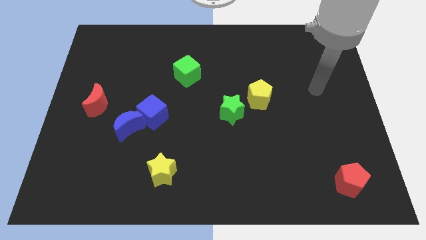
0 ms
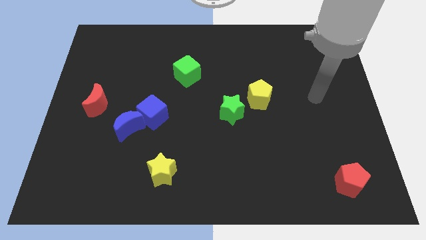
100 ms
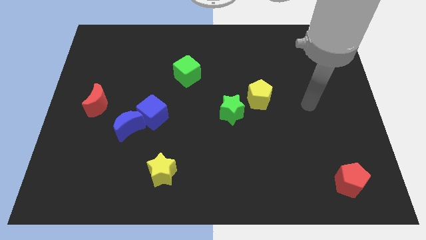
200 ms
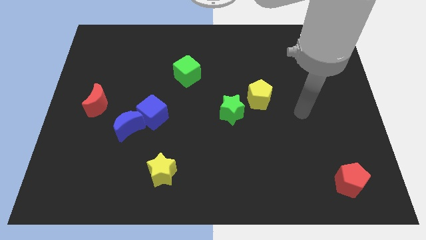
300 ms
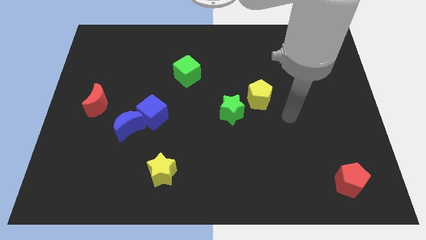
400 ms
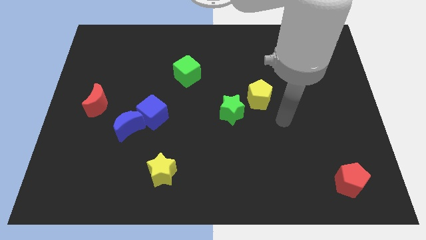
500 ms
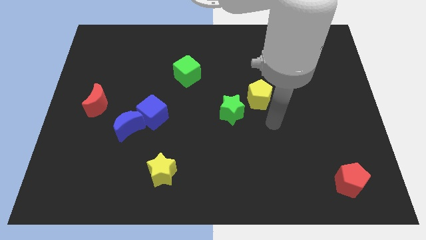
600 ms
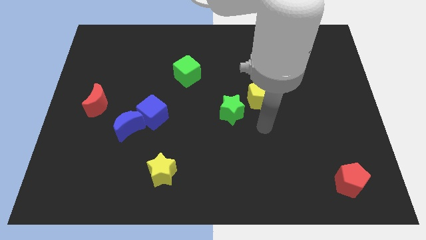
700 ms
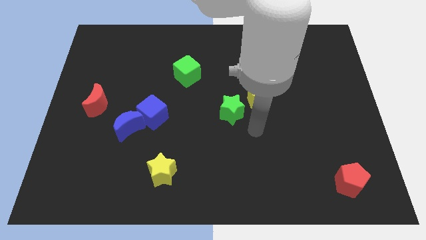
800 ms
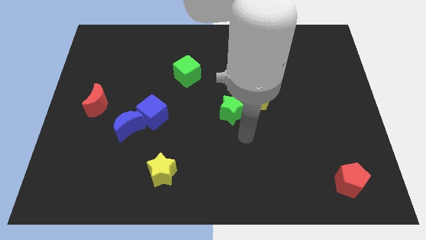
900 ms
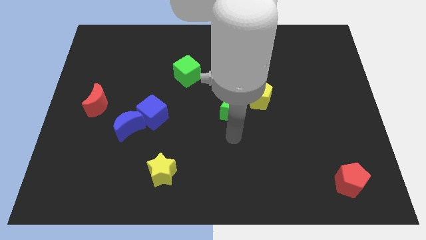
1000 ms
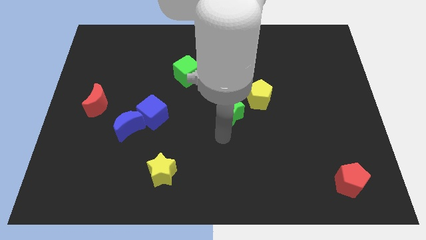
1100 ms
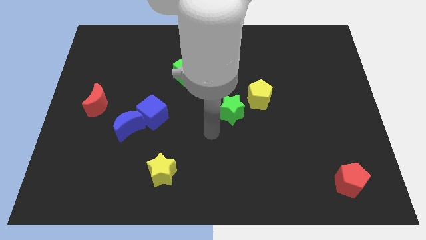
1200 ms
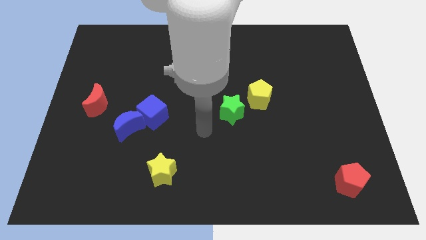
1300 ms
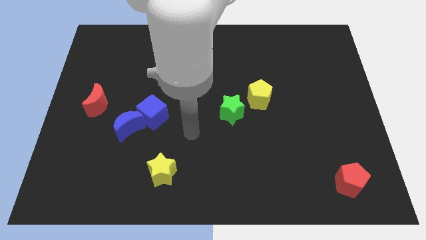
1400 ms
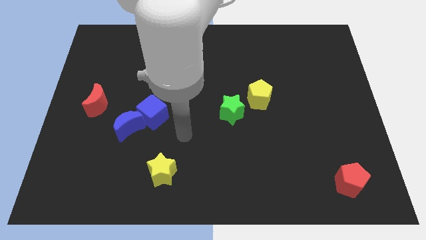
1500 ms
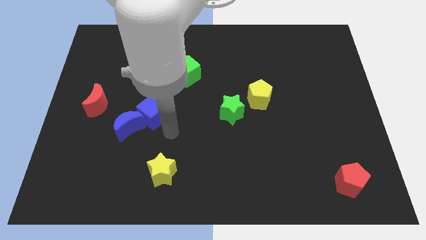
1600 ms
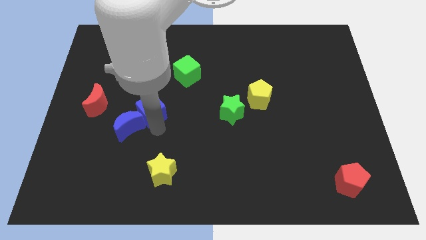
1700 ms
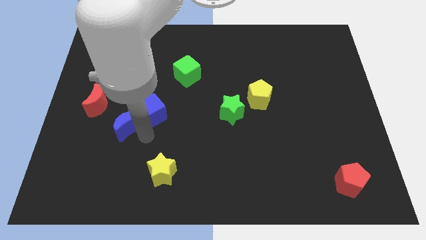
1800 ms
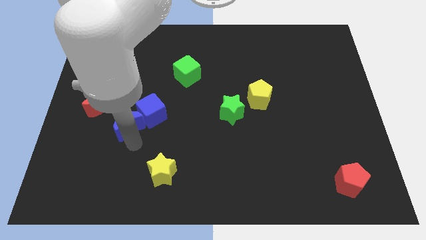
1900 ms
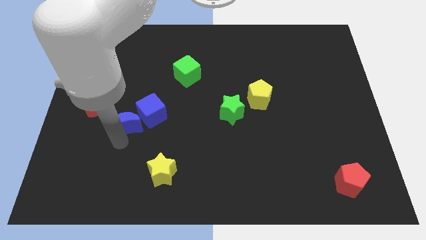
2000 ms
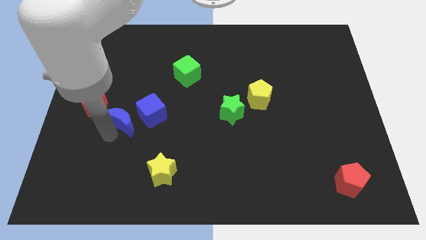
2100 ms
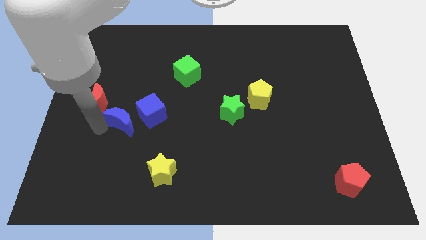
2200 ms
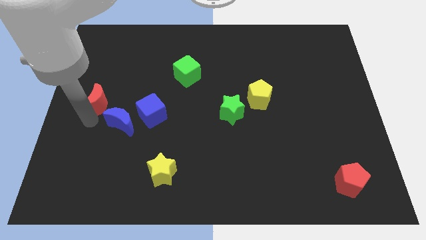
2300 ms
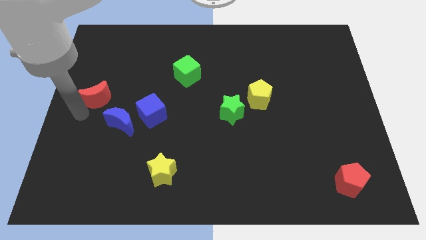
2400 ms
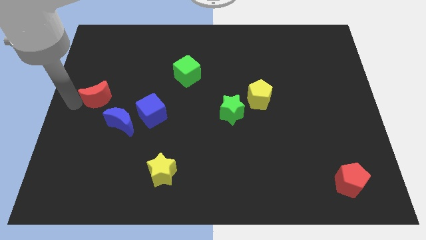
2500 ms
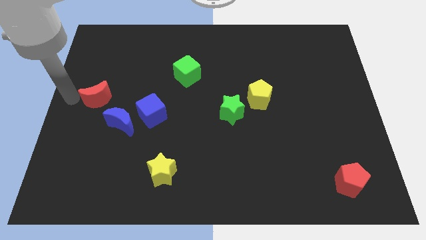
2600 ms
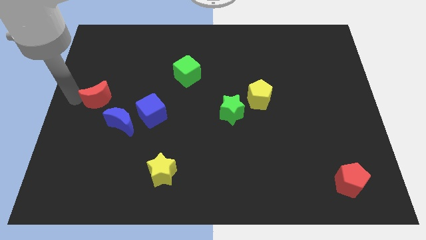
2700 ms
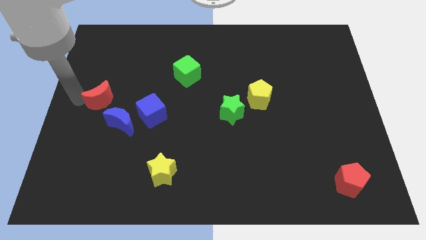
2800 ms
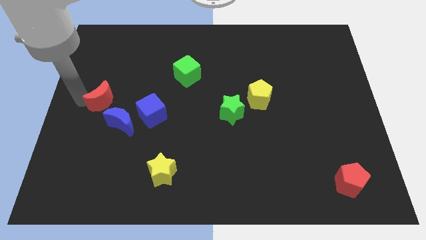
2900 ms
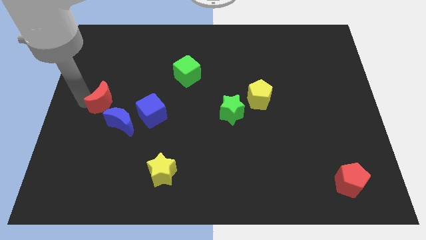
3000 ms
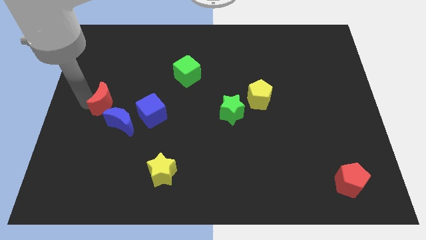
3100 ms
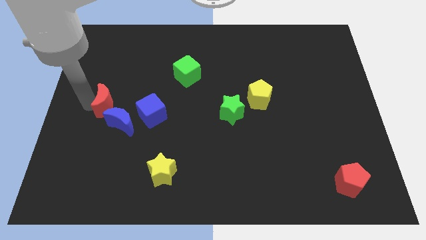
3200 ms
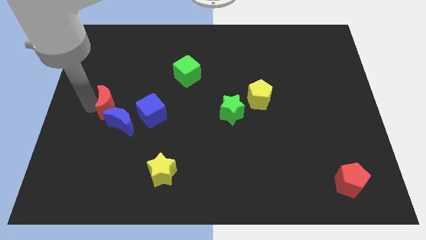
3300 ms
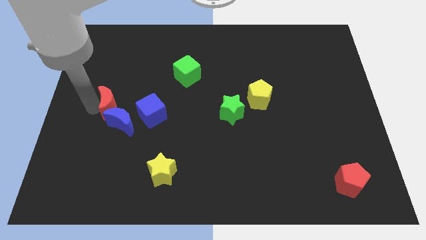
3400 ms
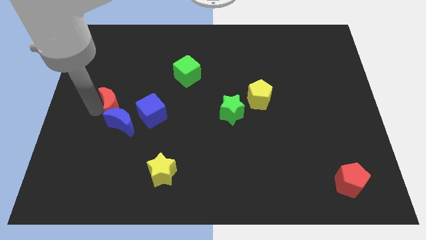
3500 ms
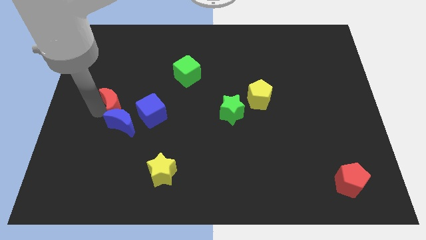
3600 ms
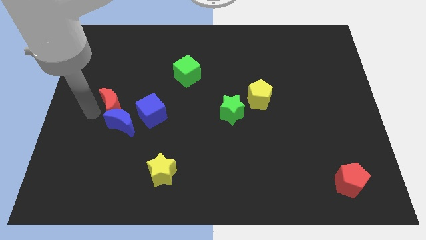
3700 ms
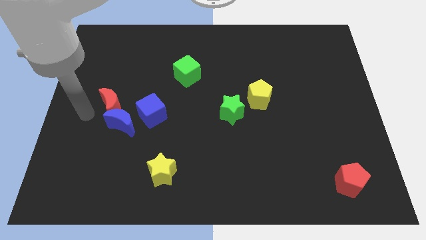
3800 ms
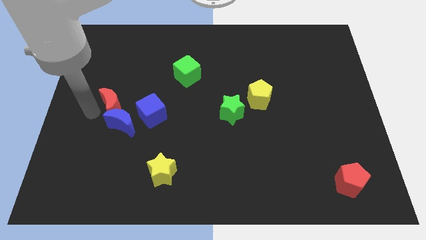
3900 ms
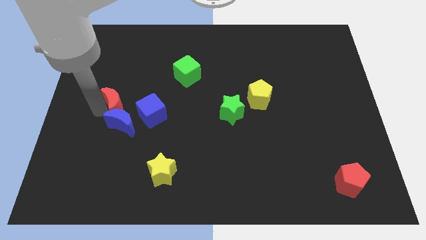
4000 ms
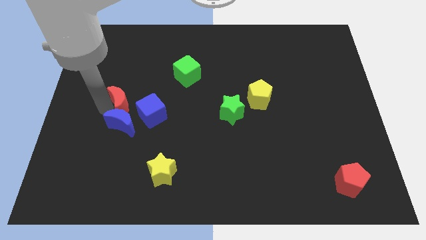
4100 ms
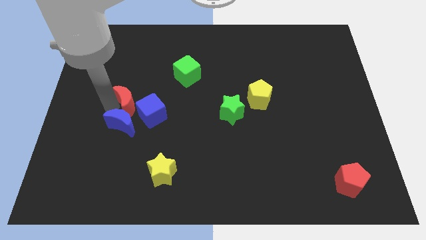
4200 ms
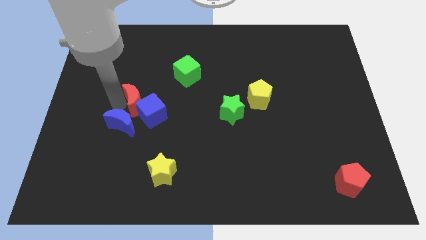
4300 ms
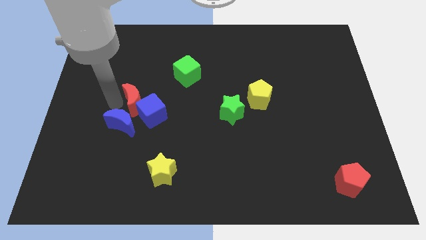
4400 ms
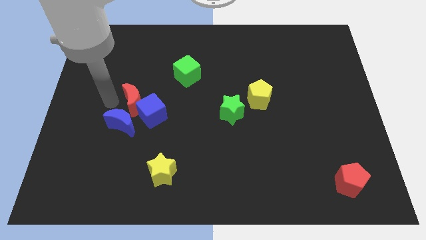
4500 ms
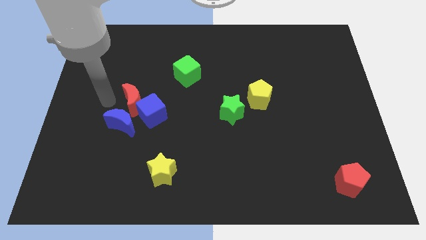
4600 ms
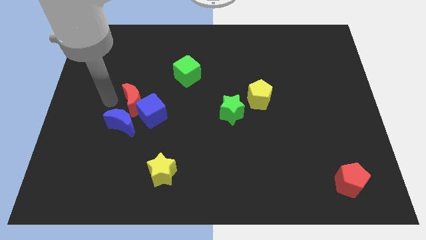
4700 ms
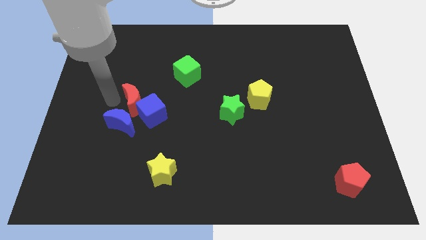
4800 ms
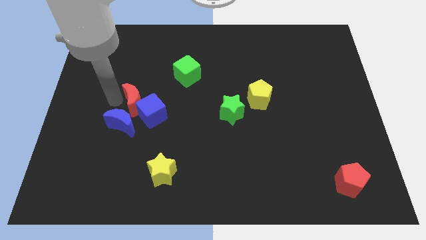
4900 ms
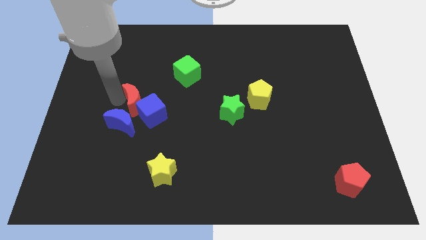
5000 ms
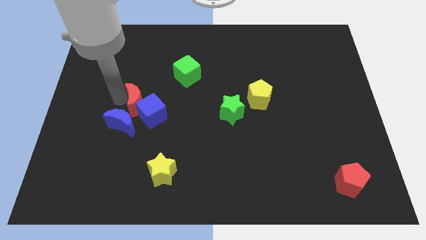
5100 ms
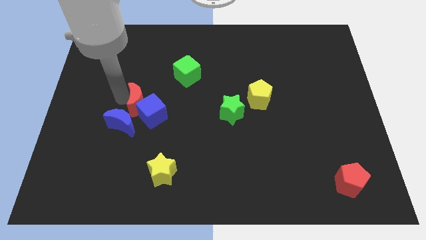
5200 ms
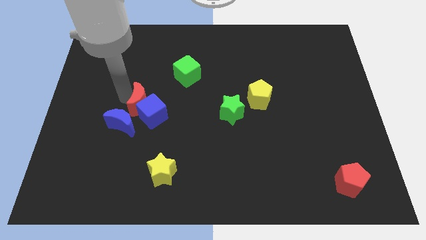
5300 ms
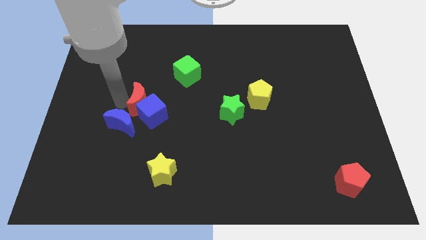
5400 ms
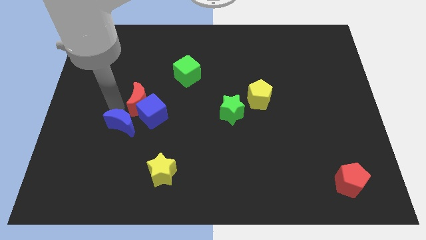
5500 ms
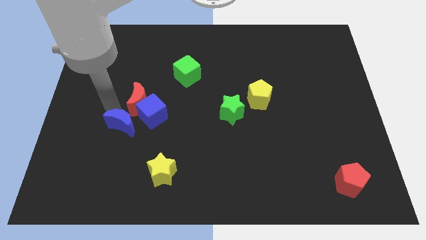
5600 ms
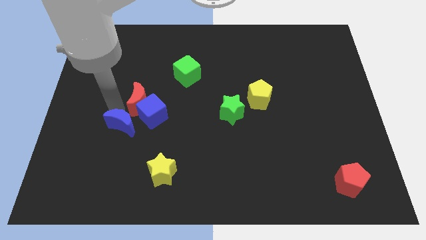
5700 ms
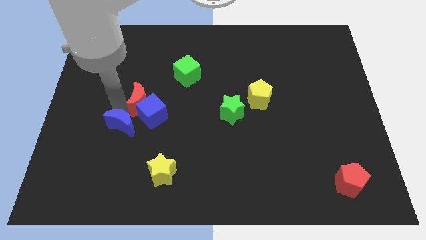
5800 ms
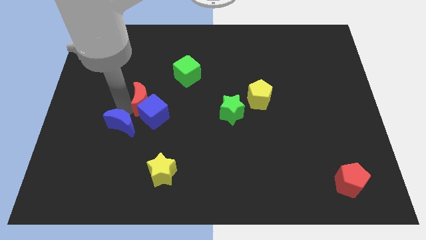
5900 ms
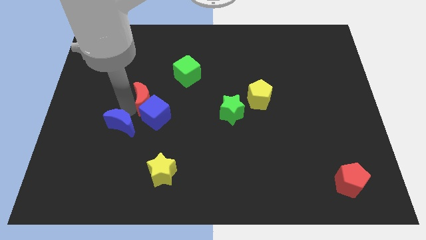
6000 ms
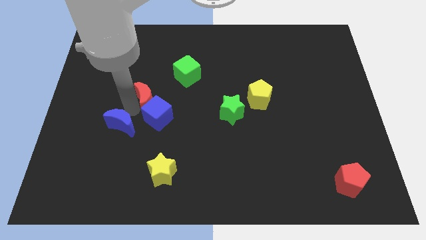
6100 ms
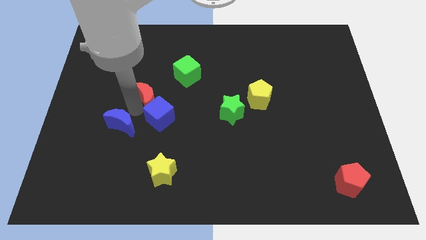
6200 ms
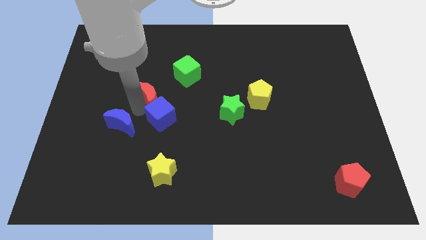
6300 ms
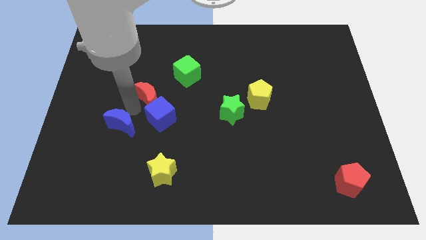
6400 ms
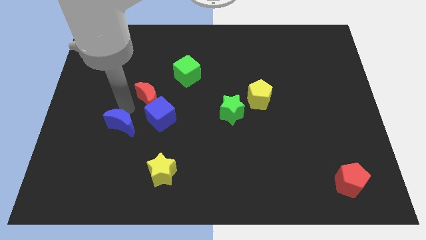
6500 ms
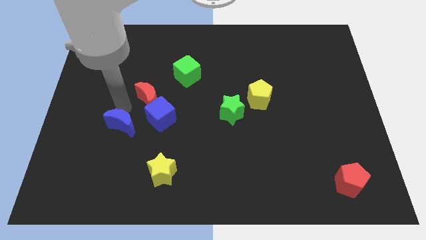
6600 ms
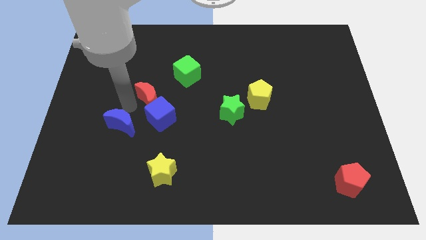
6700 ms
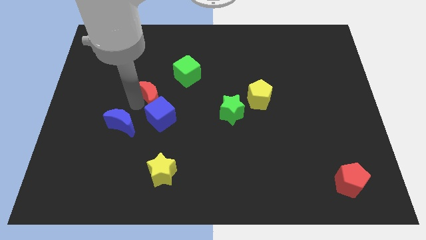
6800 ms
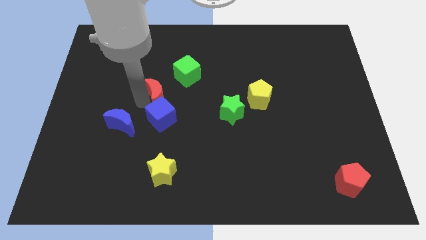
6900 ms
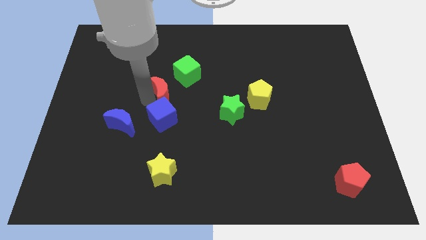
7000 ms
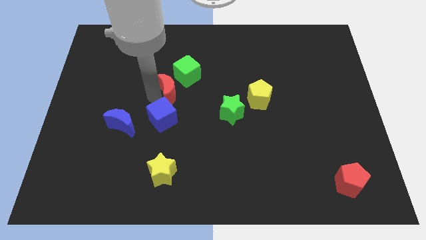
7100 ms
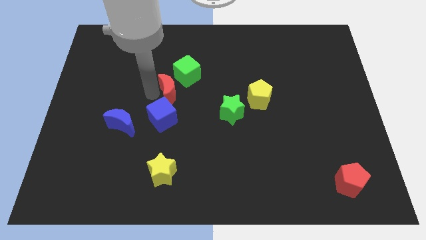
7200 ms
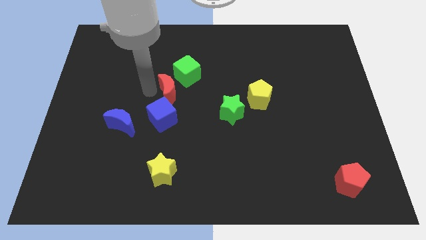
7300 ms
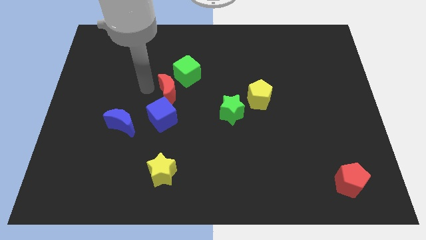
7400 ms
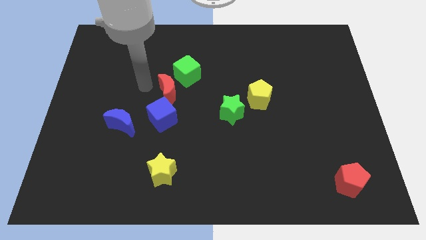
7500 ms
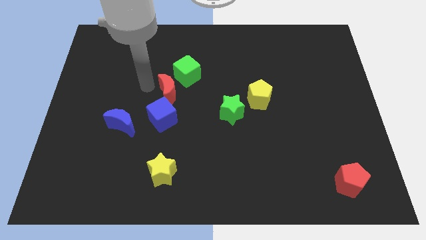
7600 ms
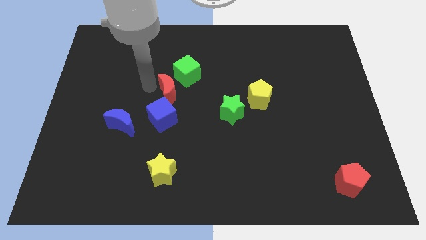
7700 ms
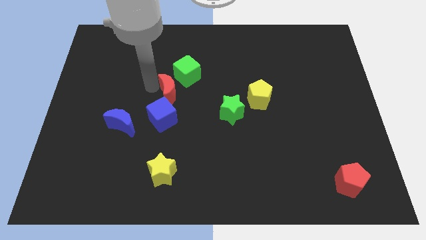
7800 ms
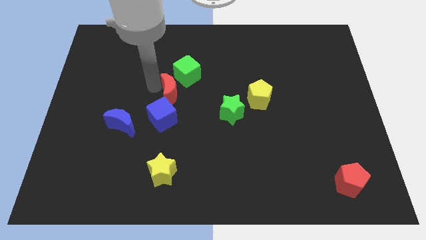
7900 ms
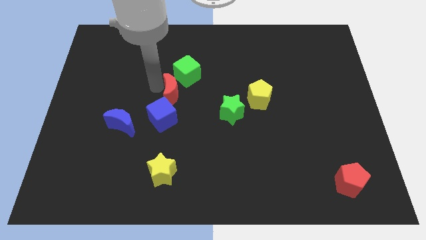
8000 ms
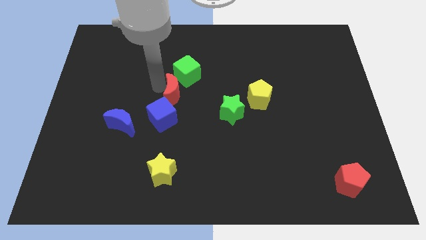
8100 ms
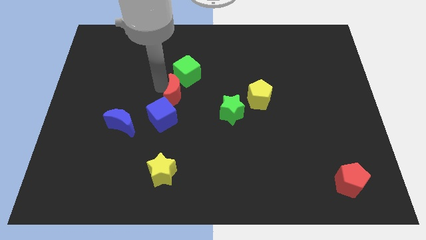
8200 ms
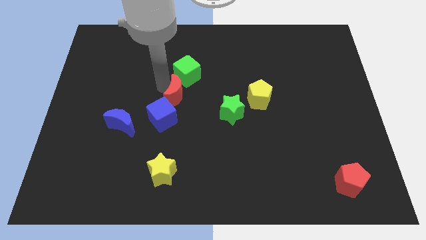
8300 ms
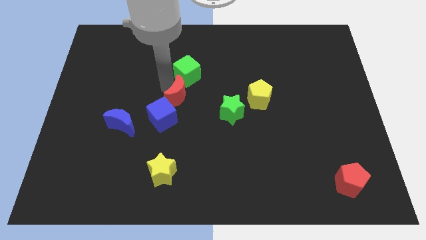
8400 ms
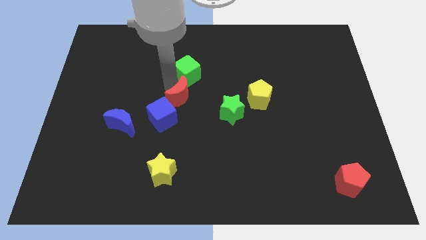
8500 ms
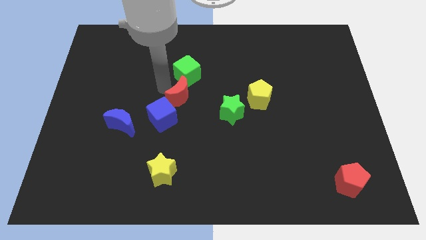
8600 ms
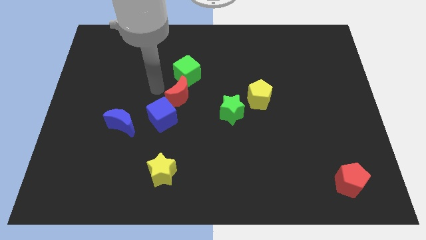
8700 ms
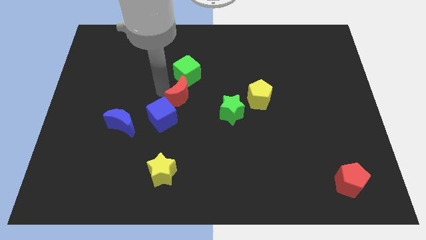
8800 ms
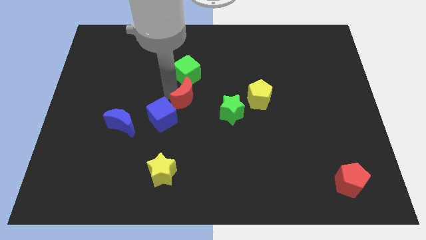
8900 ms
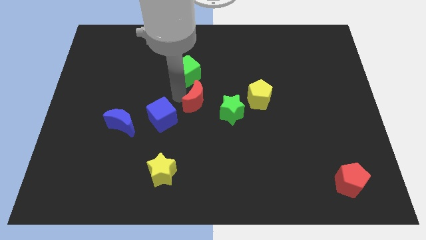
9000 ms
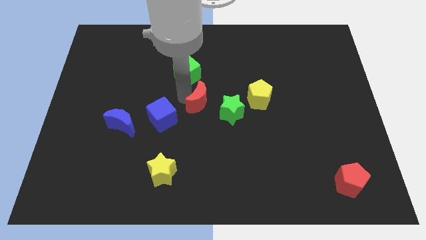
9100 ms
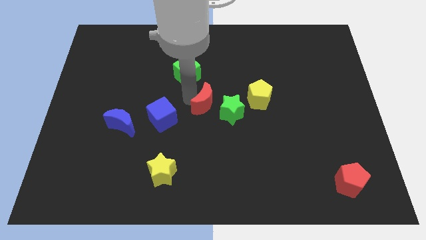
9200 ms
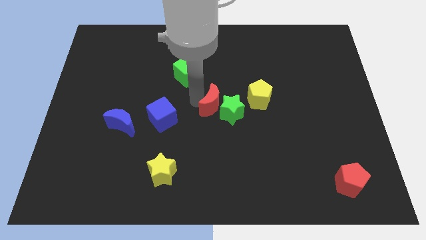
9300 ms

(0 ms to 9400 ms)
move the red moon to the green star
